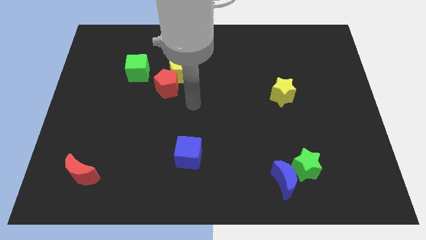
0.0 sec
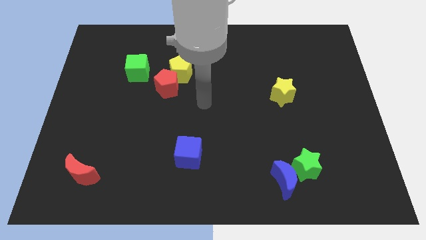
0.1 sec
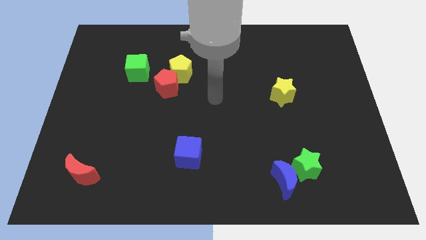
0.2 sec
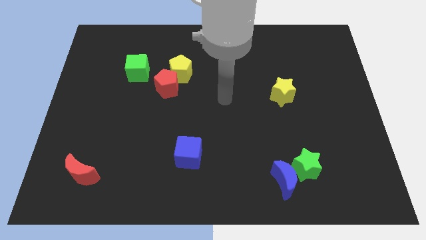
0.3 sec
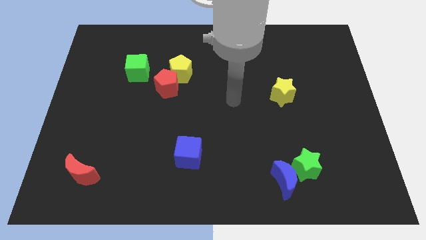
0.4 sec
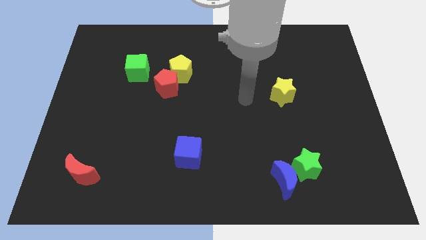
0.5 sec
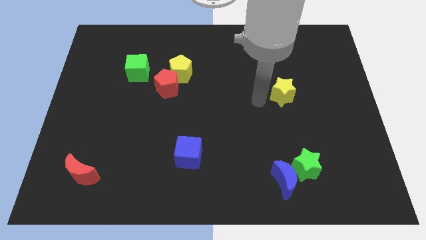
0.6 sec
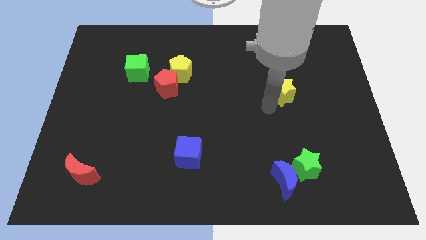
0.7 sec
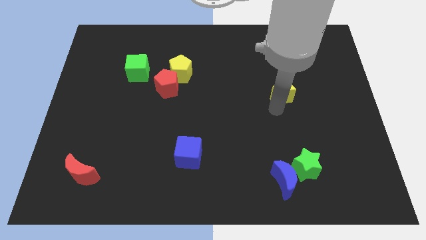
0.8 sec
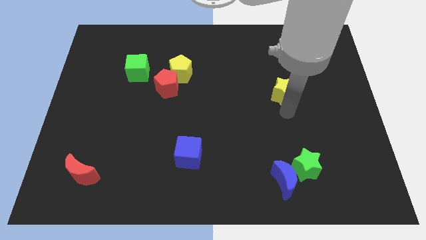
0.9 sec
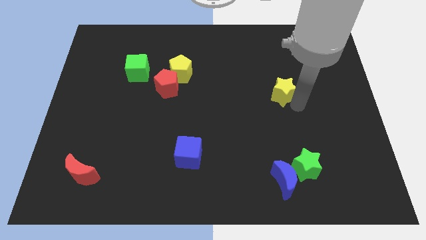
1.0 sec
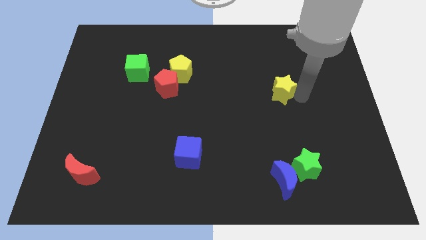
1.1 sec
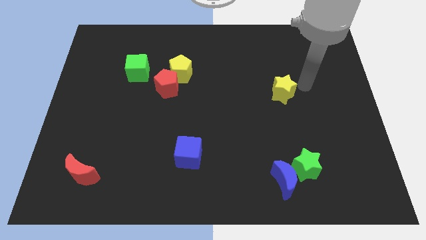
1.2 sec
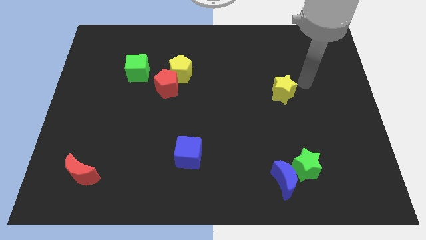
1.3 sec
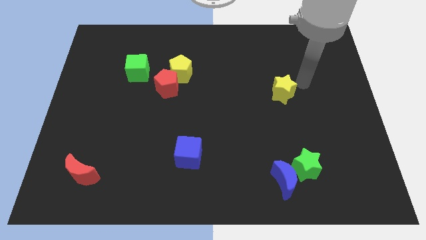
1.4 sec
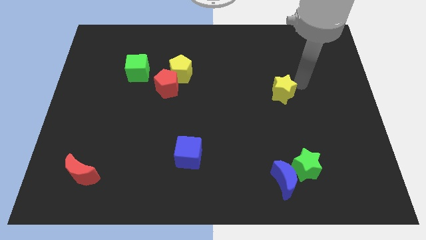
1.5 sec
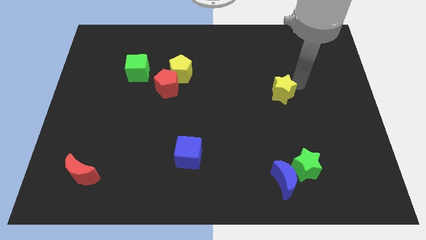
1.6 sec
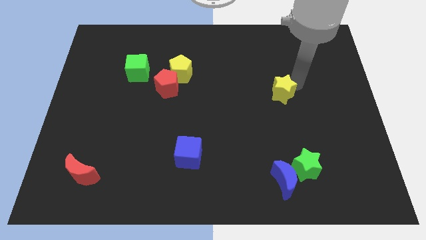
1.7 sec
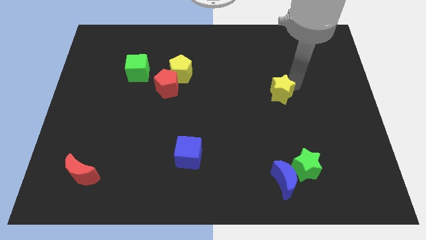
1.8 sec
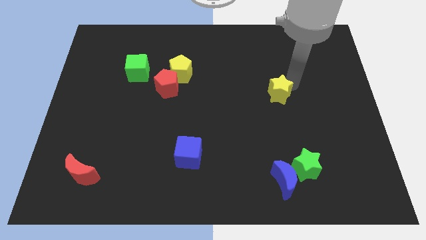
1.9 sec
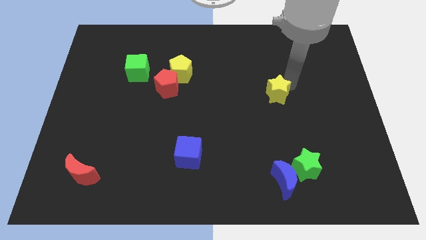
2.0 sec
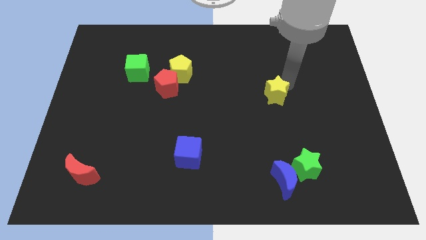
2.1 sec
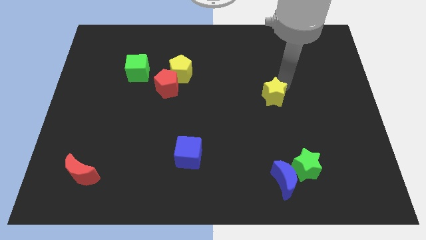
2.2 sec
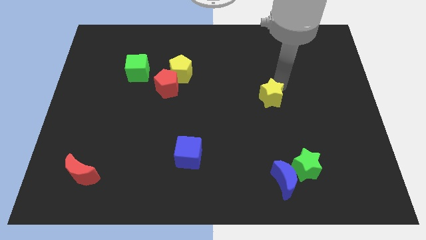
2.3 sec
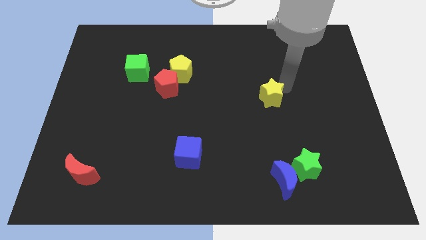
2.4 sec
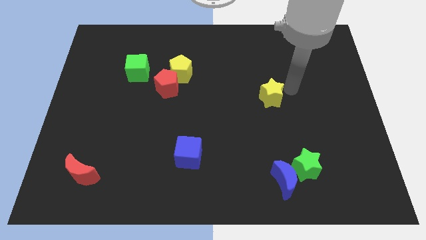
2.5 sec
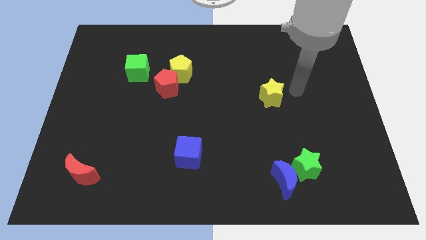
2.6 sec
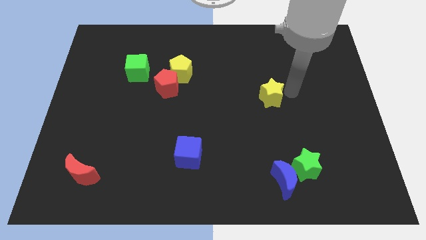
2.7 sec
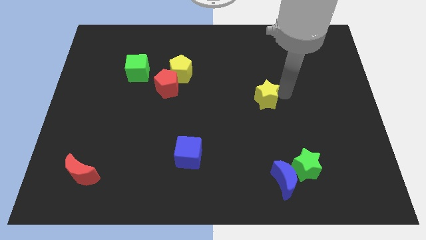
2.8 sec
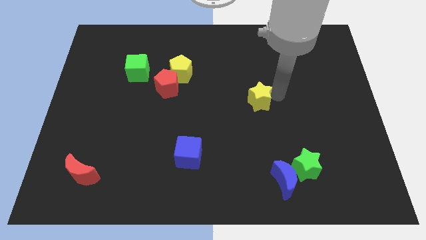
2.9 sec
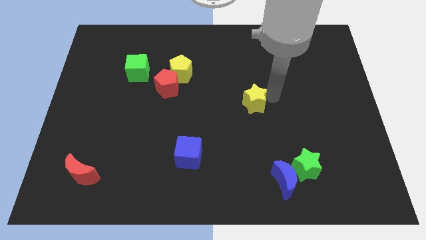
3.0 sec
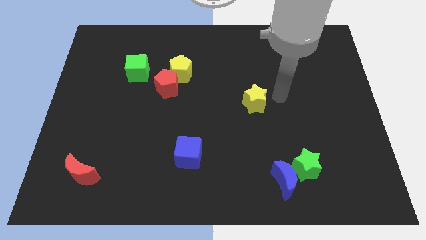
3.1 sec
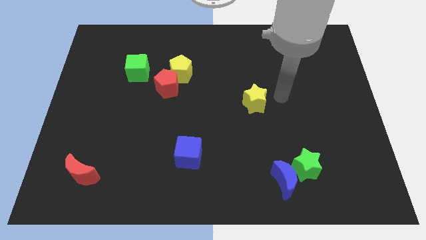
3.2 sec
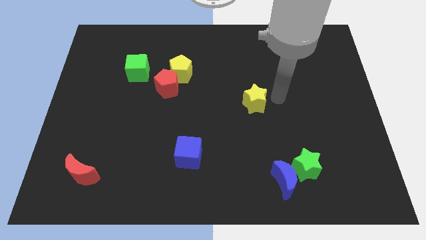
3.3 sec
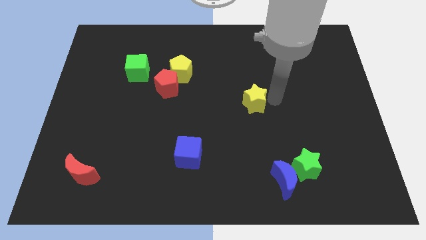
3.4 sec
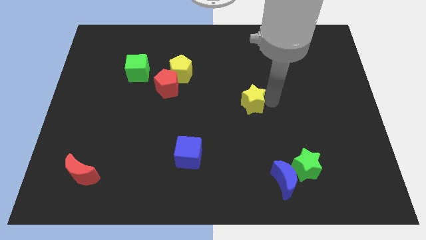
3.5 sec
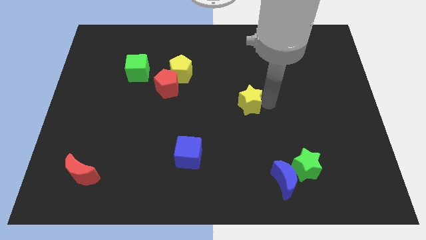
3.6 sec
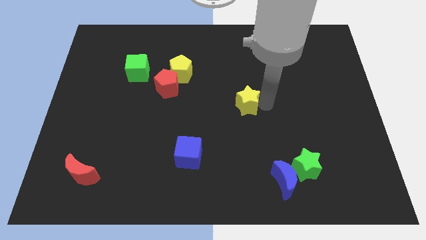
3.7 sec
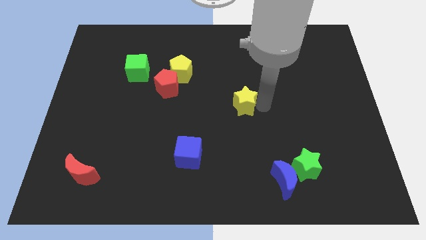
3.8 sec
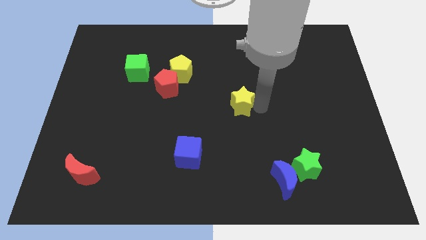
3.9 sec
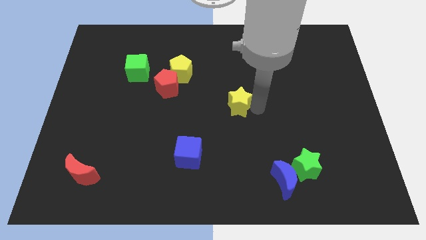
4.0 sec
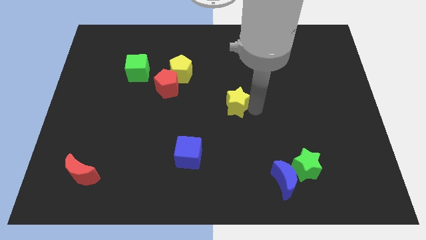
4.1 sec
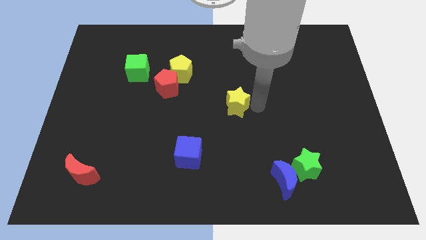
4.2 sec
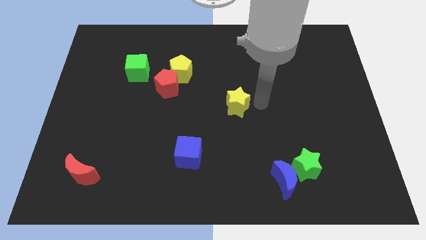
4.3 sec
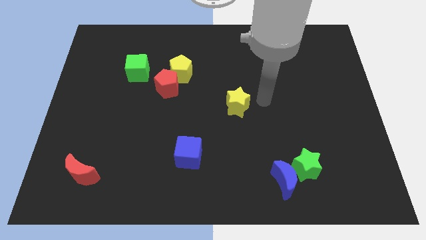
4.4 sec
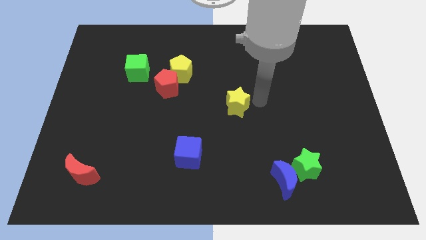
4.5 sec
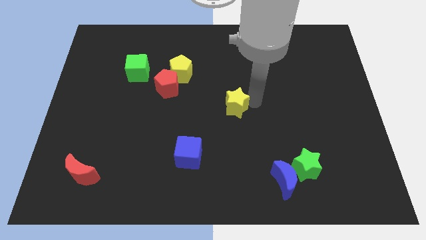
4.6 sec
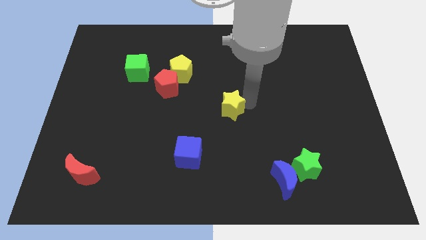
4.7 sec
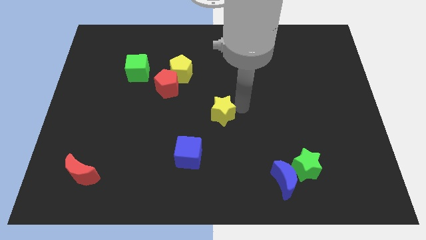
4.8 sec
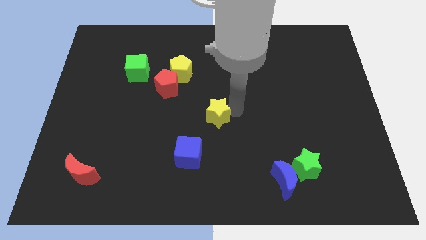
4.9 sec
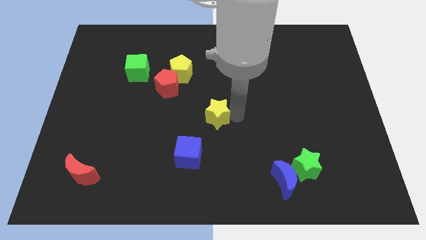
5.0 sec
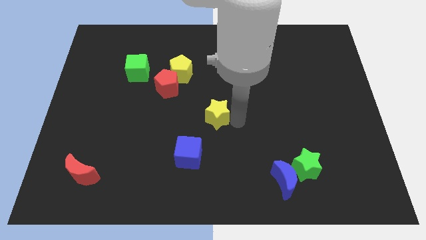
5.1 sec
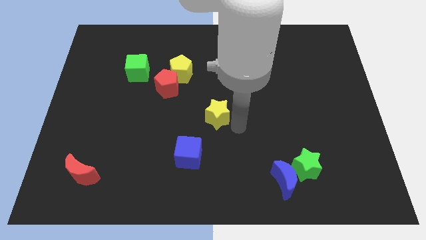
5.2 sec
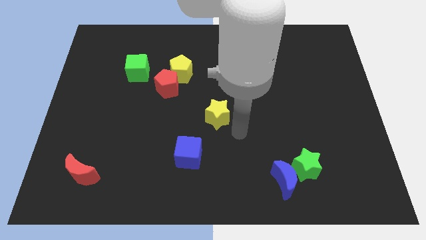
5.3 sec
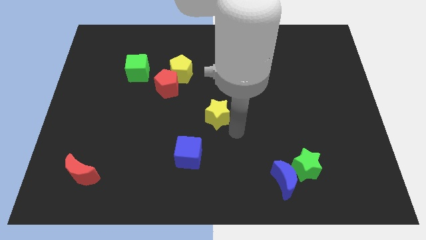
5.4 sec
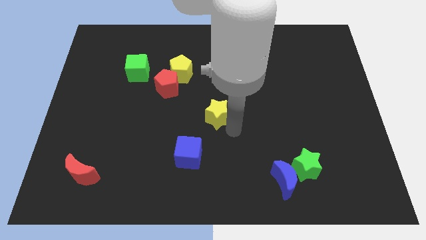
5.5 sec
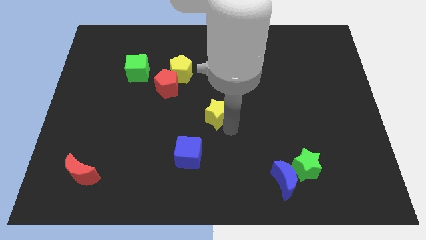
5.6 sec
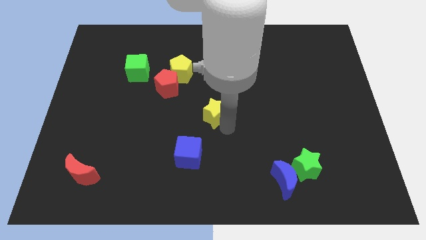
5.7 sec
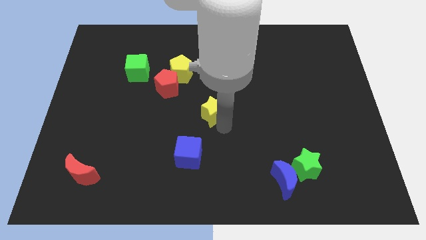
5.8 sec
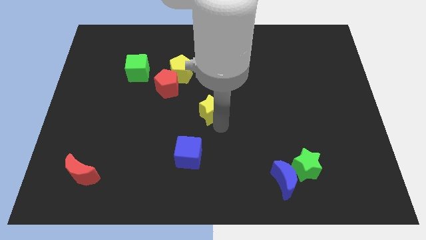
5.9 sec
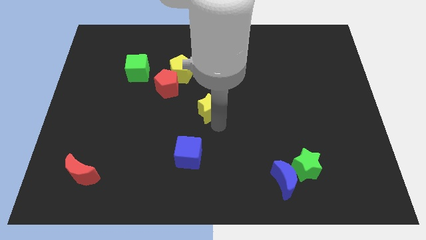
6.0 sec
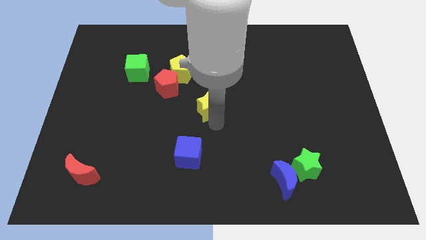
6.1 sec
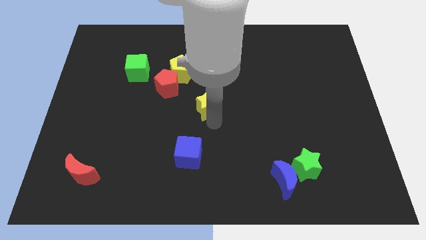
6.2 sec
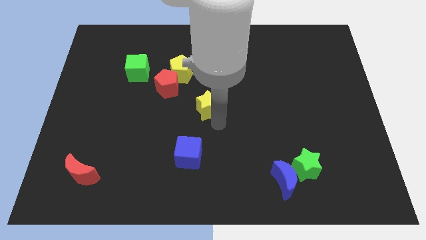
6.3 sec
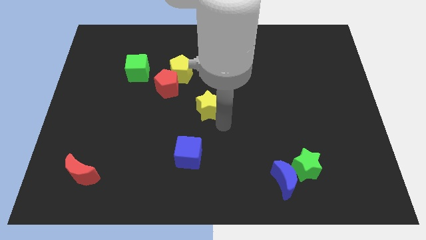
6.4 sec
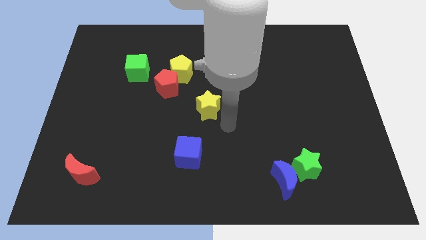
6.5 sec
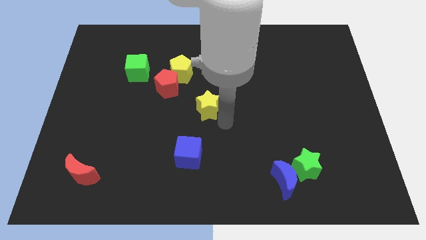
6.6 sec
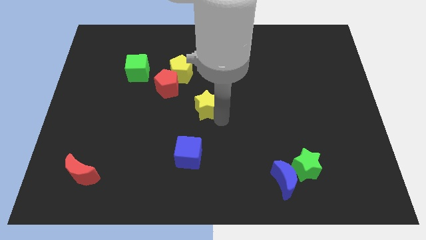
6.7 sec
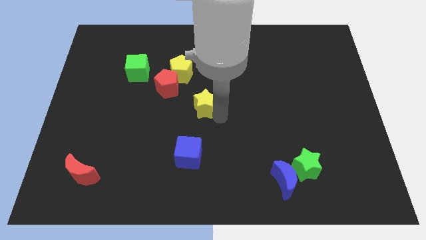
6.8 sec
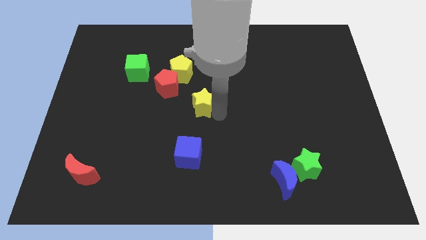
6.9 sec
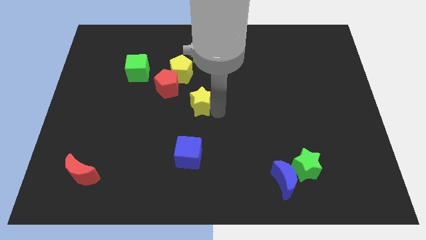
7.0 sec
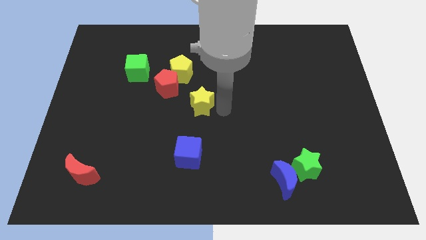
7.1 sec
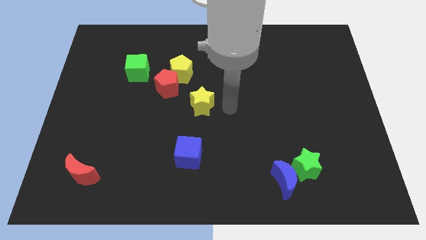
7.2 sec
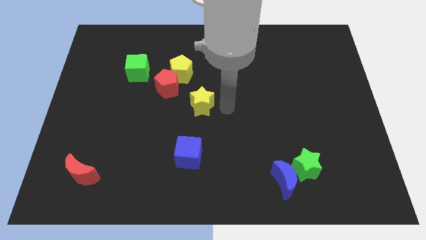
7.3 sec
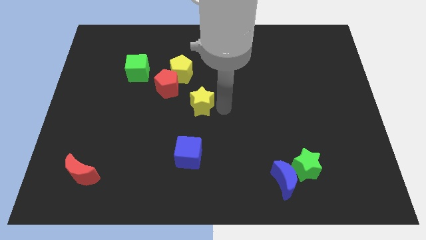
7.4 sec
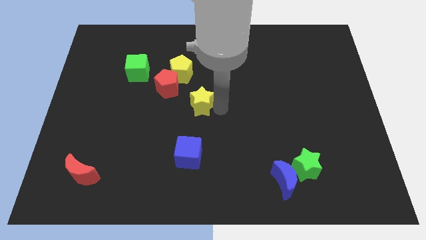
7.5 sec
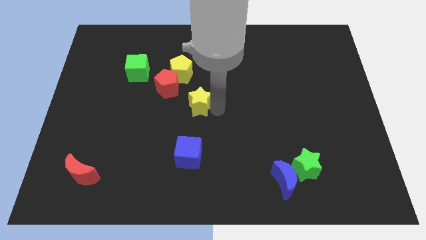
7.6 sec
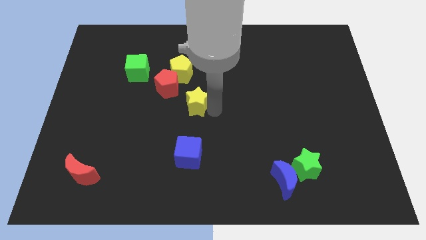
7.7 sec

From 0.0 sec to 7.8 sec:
push the yellow star left

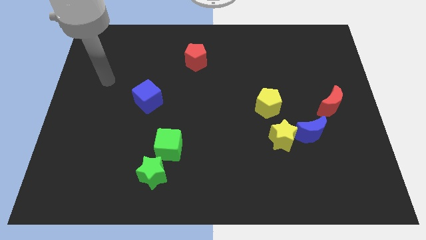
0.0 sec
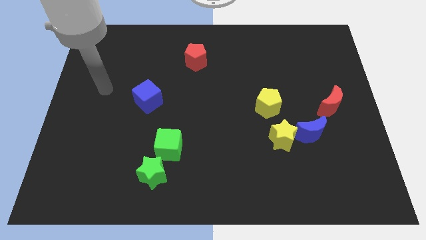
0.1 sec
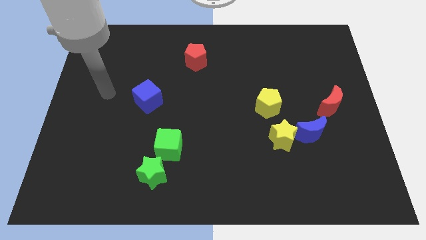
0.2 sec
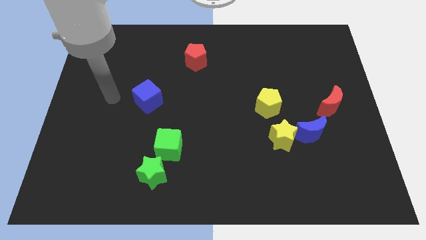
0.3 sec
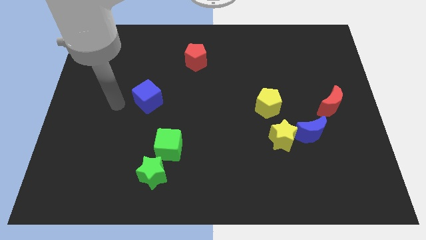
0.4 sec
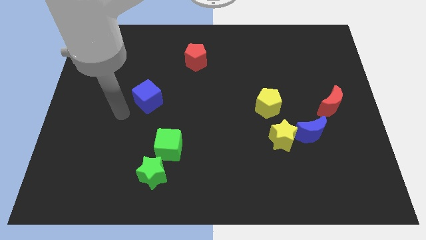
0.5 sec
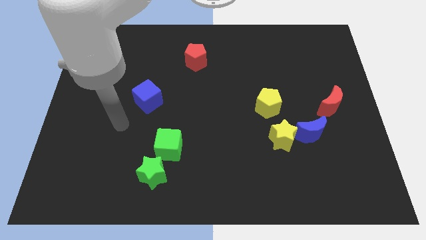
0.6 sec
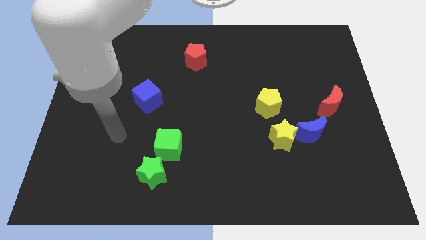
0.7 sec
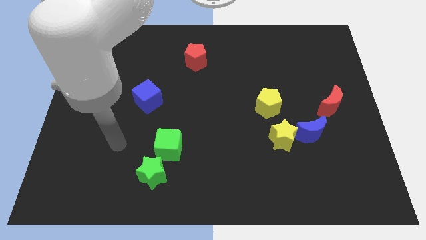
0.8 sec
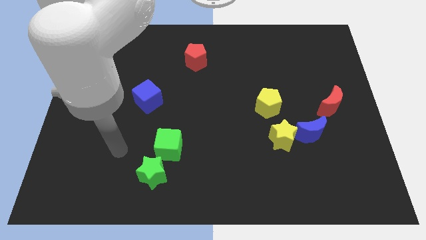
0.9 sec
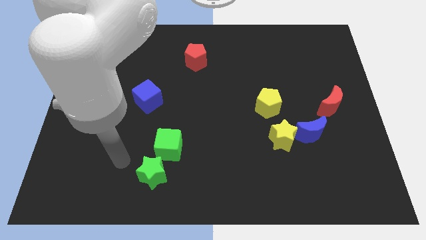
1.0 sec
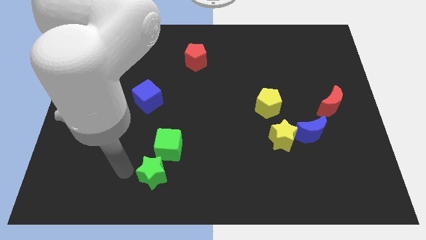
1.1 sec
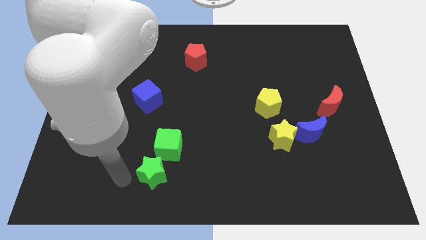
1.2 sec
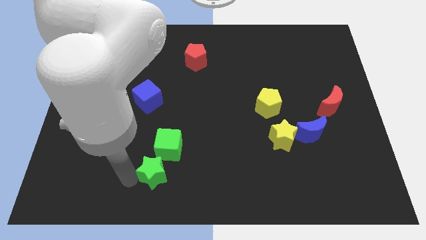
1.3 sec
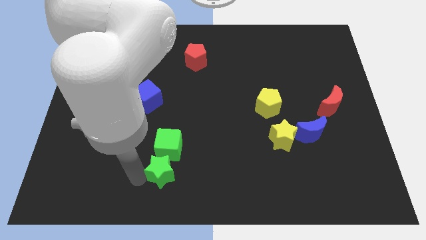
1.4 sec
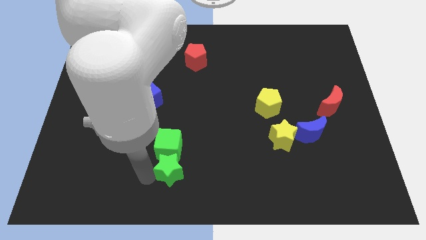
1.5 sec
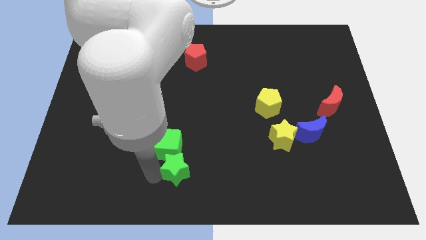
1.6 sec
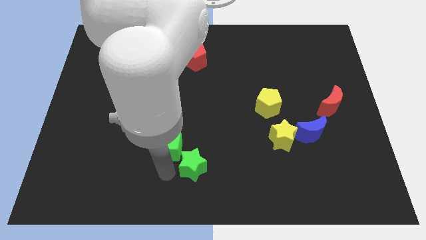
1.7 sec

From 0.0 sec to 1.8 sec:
move the green star a little to the right
